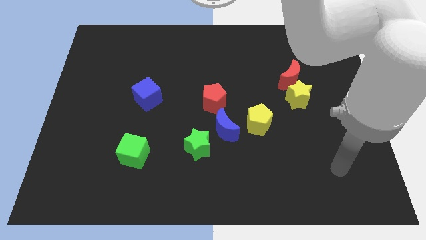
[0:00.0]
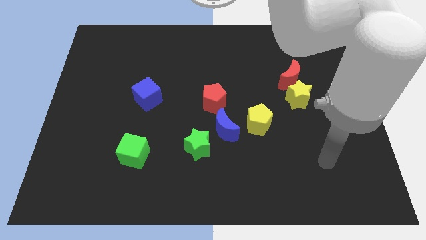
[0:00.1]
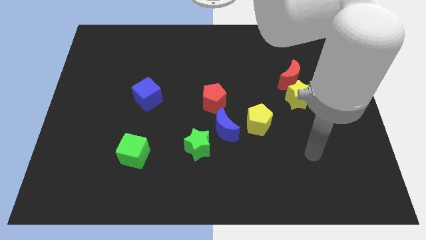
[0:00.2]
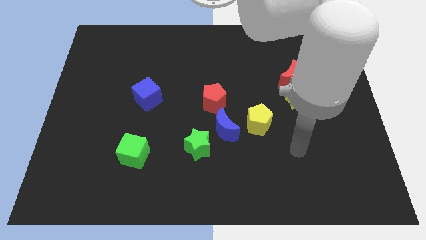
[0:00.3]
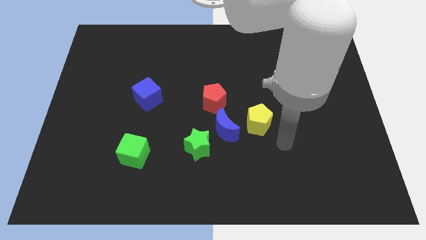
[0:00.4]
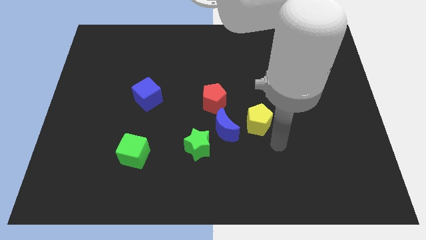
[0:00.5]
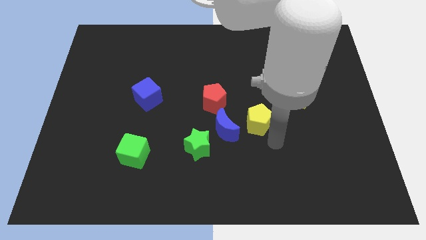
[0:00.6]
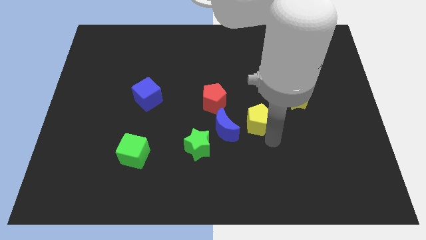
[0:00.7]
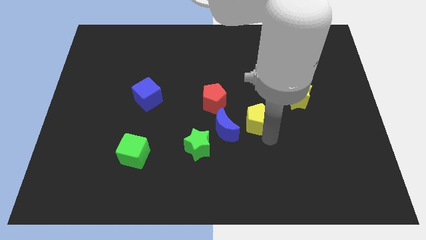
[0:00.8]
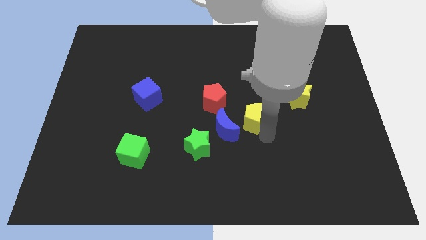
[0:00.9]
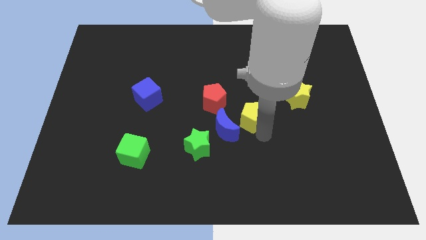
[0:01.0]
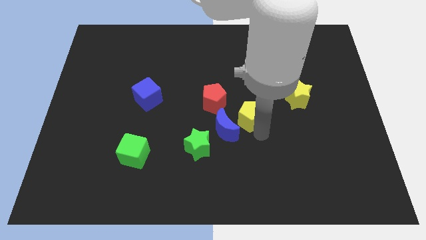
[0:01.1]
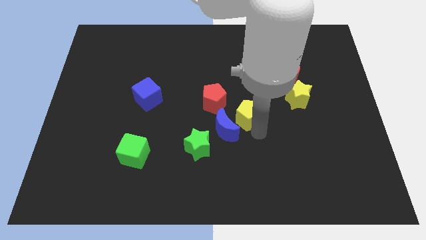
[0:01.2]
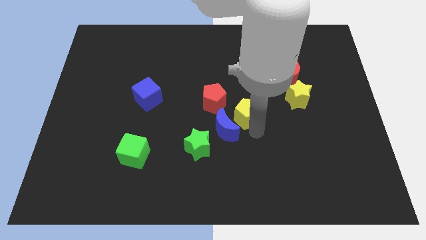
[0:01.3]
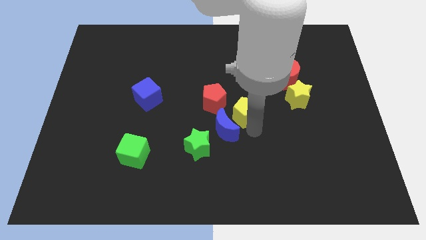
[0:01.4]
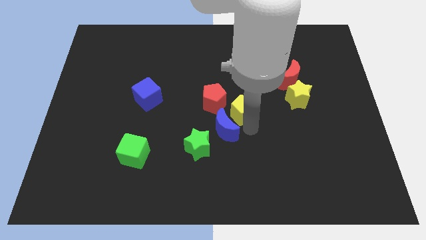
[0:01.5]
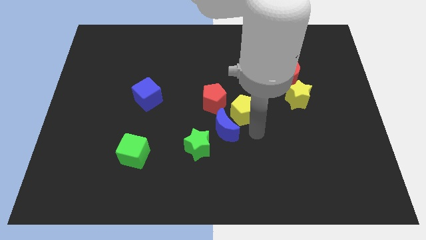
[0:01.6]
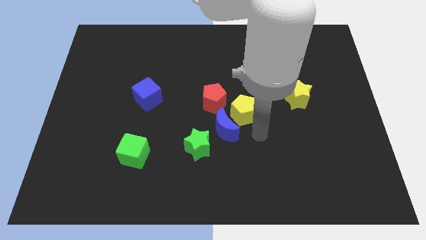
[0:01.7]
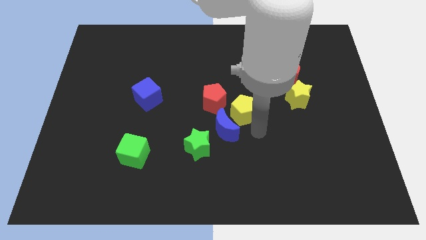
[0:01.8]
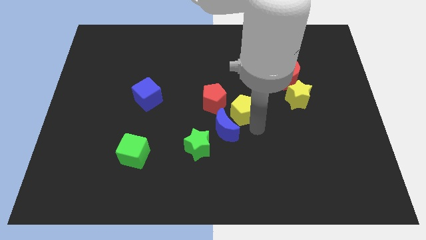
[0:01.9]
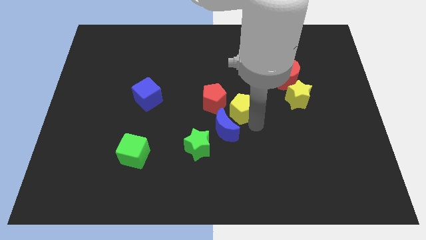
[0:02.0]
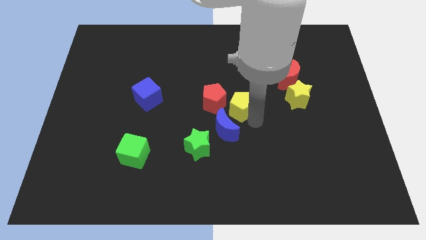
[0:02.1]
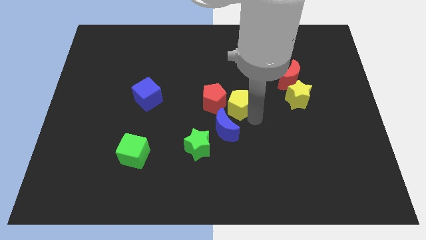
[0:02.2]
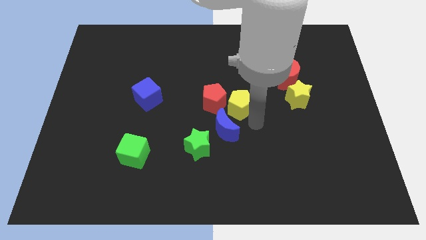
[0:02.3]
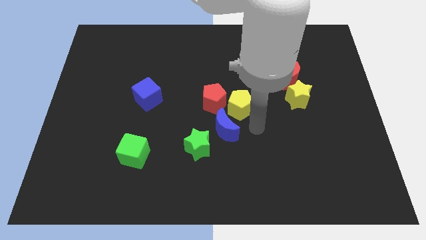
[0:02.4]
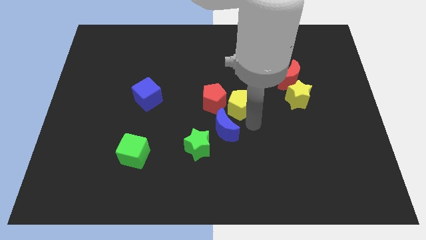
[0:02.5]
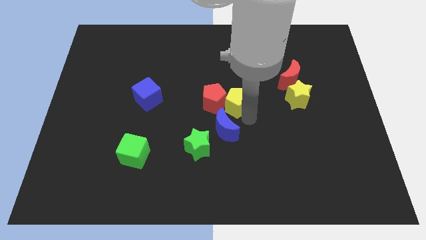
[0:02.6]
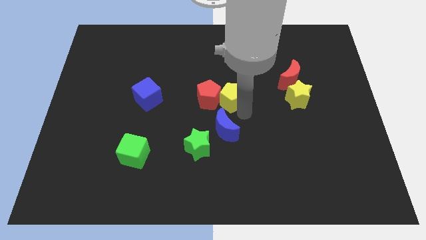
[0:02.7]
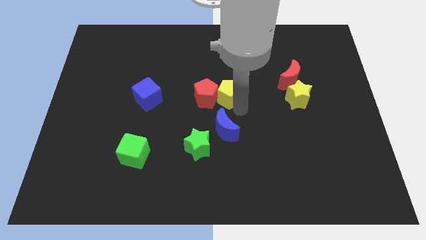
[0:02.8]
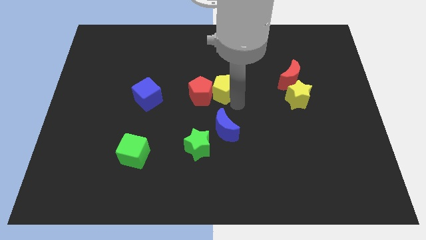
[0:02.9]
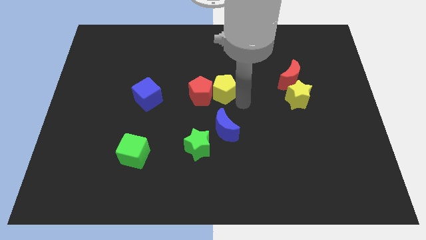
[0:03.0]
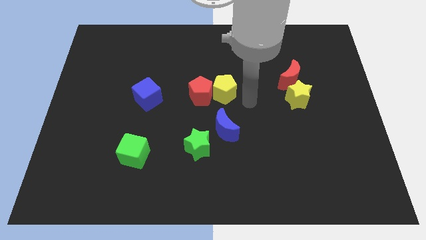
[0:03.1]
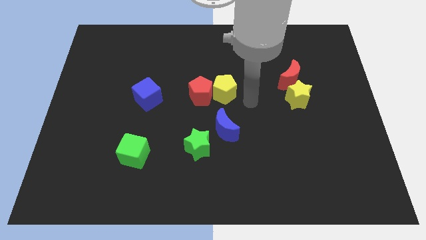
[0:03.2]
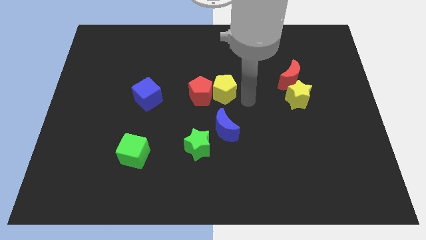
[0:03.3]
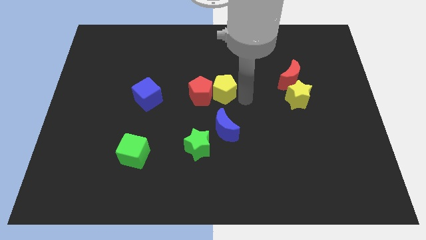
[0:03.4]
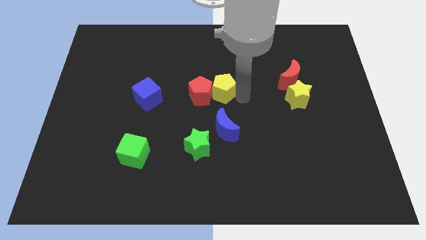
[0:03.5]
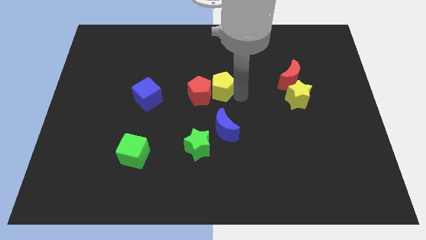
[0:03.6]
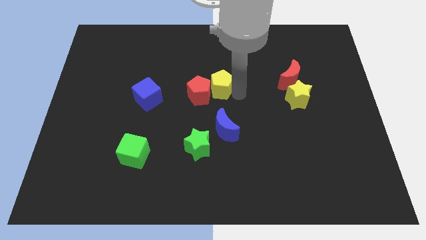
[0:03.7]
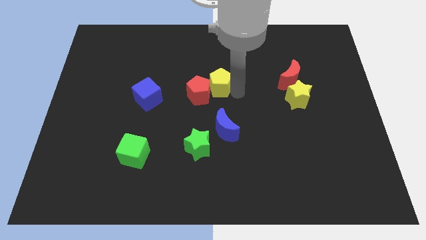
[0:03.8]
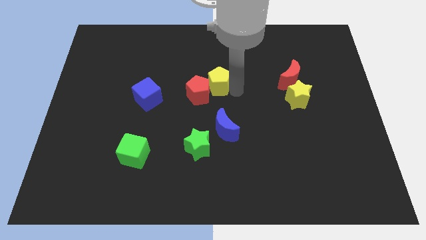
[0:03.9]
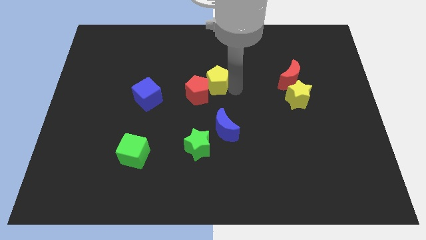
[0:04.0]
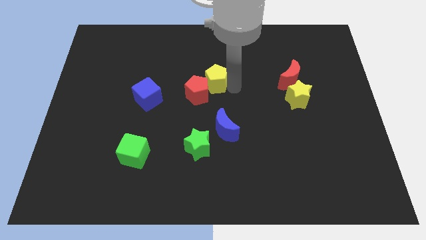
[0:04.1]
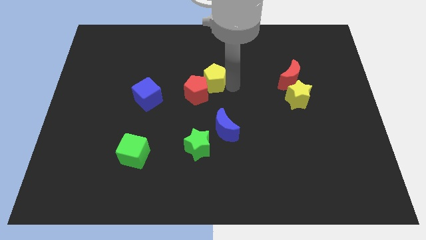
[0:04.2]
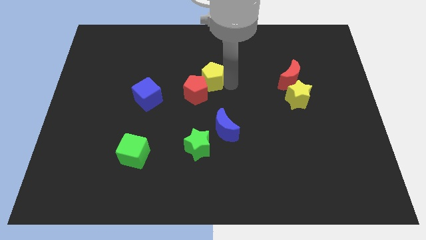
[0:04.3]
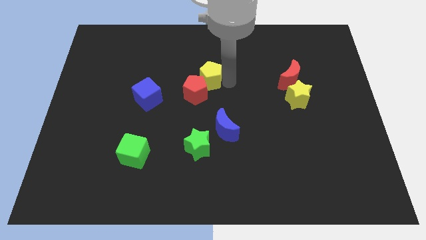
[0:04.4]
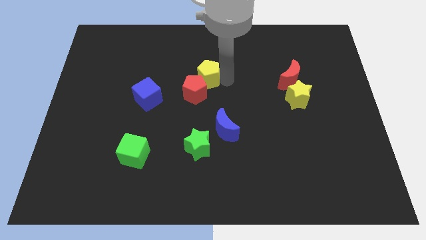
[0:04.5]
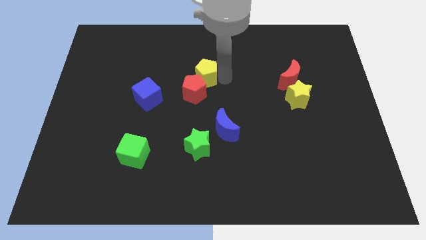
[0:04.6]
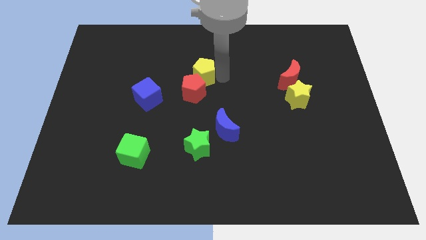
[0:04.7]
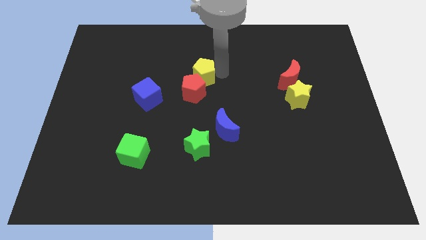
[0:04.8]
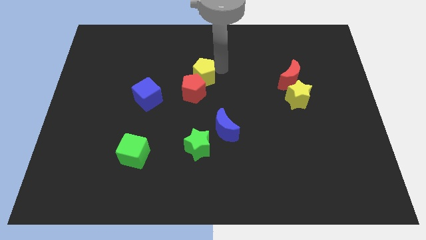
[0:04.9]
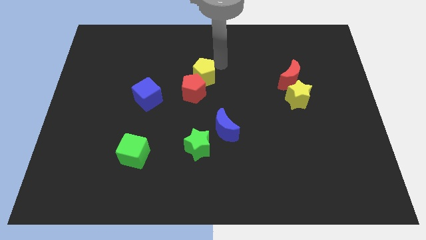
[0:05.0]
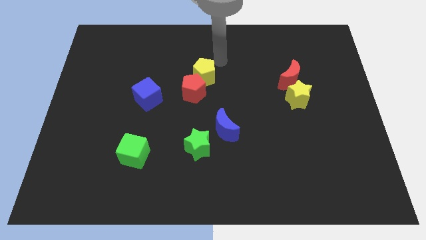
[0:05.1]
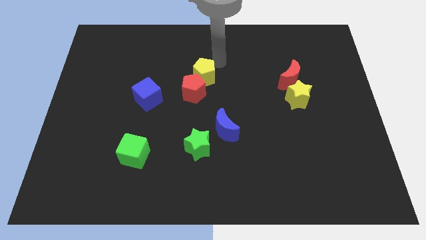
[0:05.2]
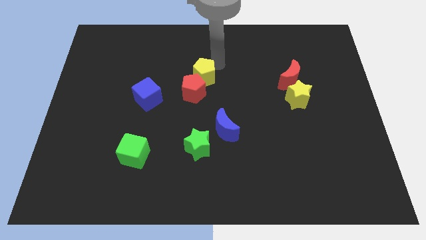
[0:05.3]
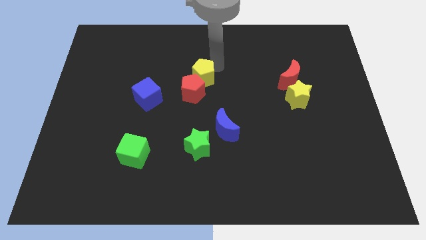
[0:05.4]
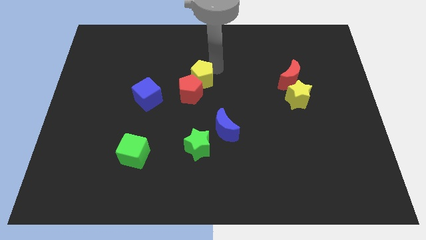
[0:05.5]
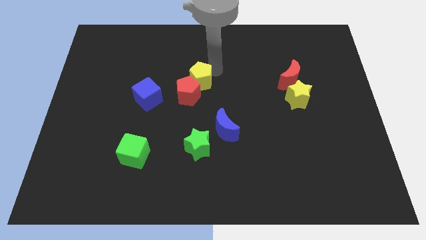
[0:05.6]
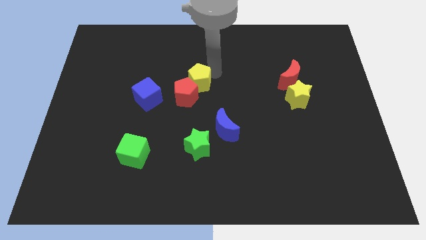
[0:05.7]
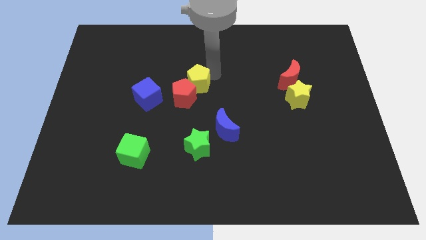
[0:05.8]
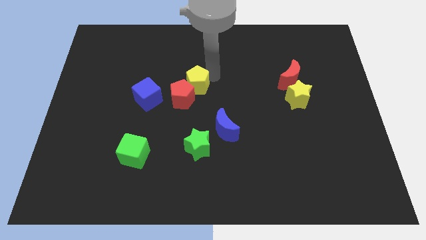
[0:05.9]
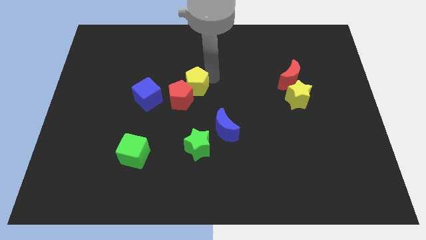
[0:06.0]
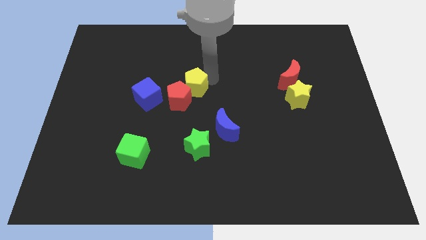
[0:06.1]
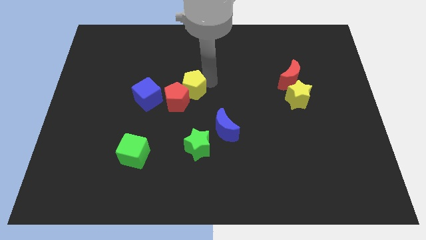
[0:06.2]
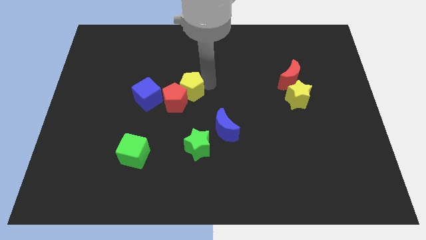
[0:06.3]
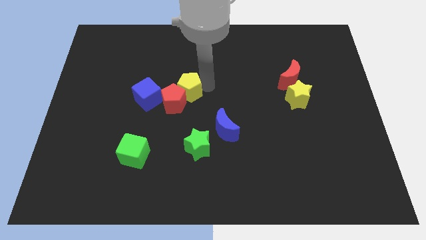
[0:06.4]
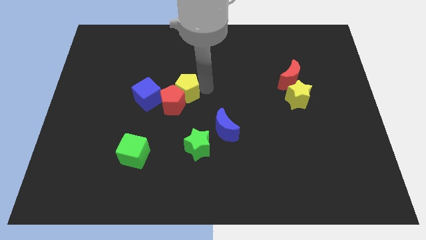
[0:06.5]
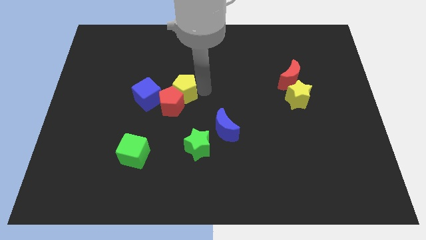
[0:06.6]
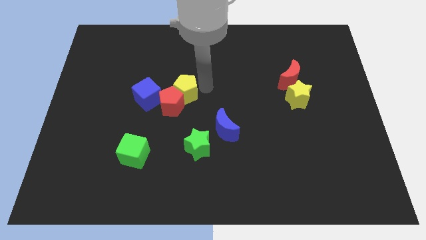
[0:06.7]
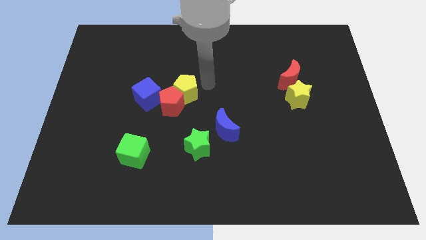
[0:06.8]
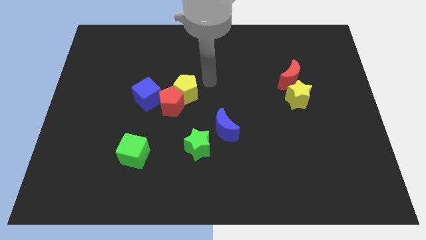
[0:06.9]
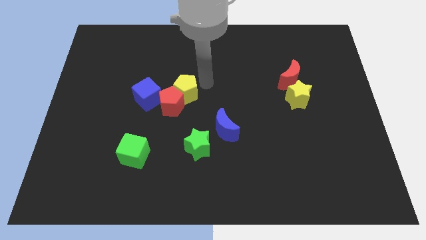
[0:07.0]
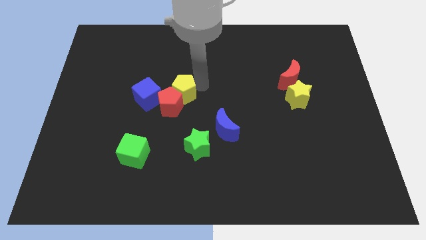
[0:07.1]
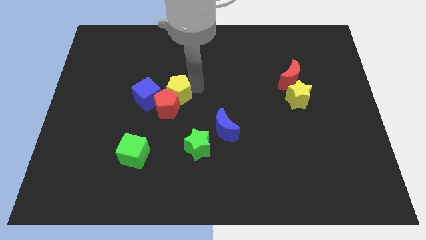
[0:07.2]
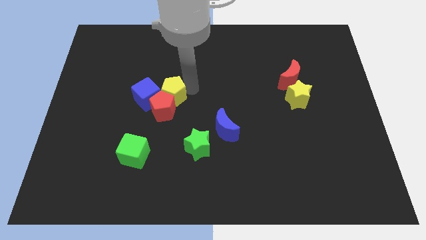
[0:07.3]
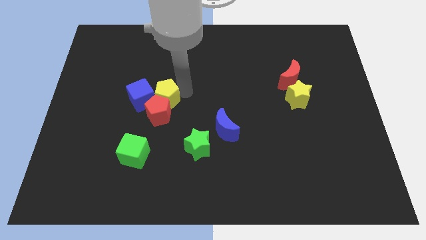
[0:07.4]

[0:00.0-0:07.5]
push the yellow pentagon close to the blue cube
